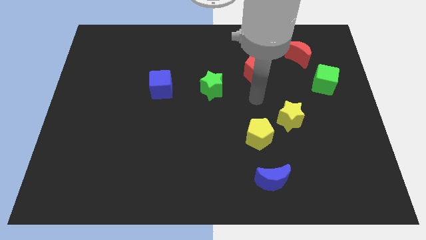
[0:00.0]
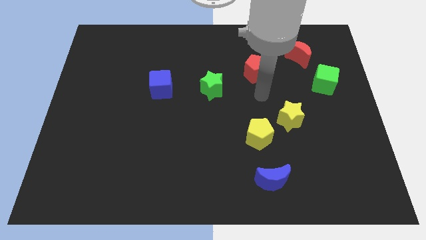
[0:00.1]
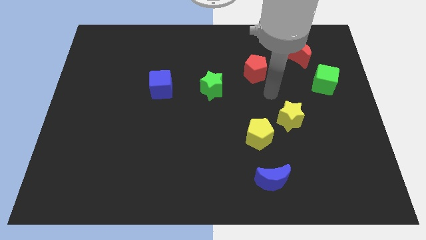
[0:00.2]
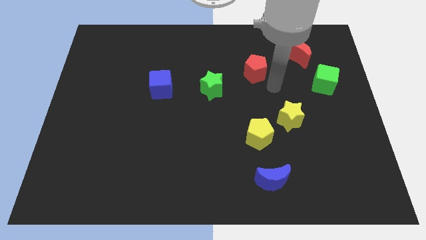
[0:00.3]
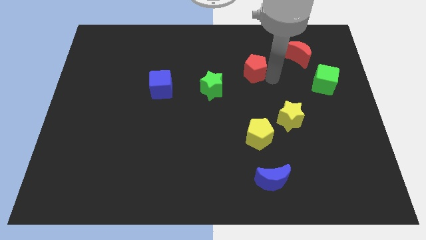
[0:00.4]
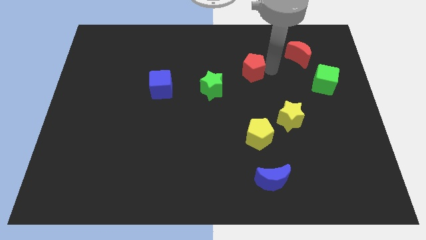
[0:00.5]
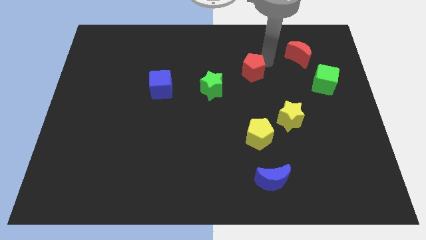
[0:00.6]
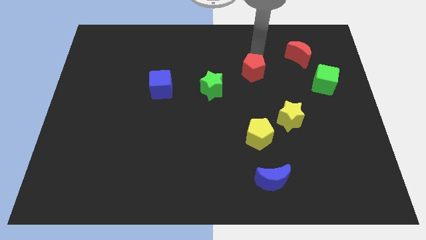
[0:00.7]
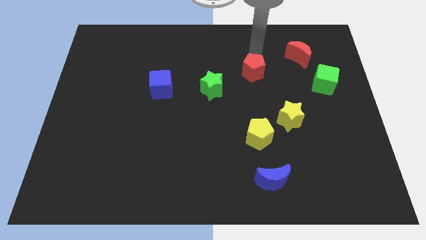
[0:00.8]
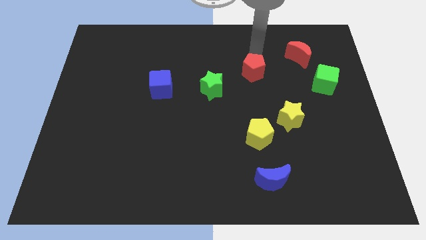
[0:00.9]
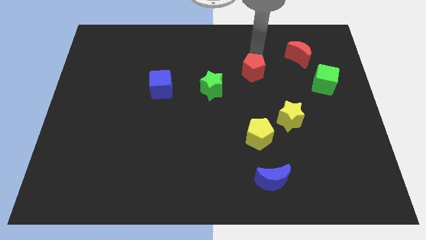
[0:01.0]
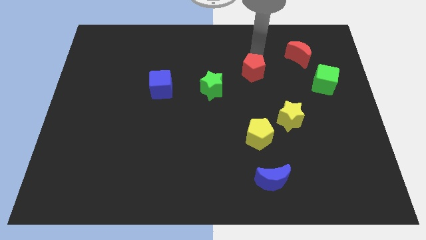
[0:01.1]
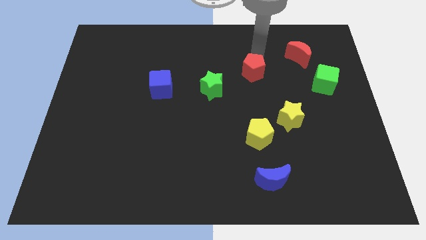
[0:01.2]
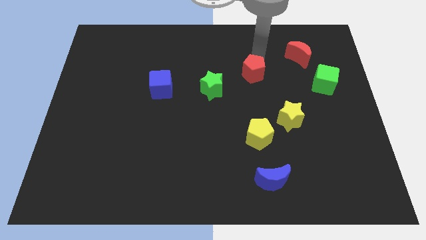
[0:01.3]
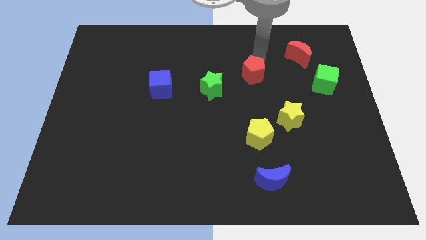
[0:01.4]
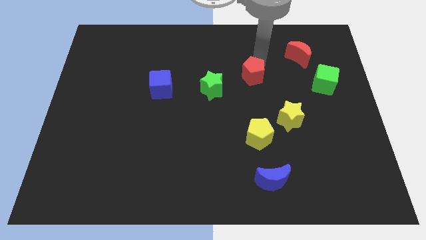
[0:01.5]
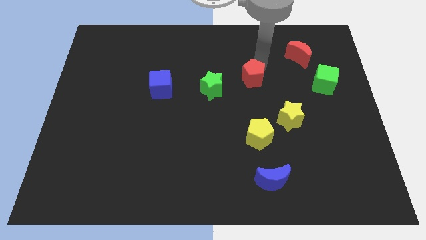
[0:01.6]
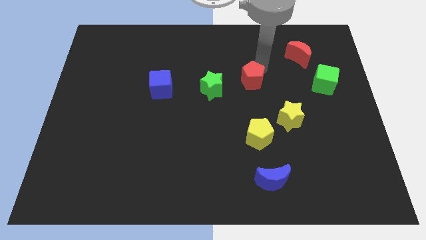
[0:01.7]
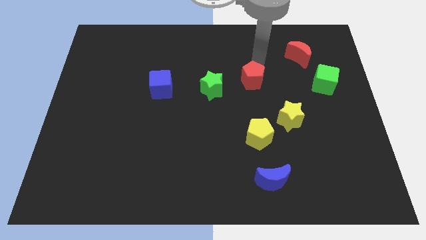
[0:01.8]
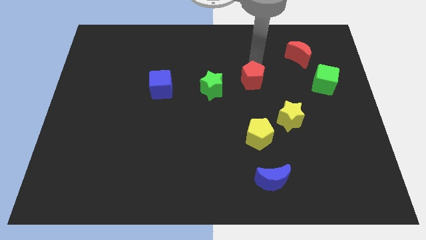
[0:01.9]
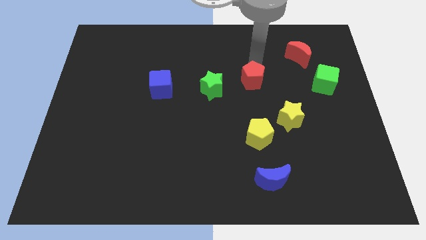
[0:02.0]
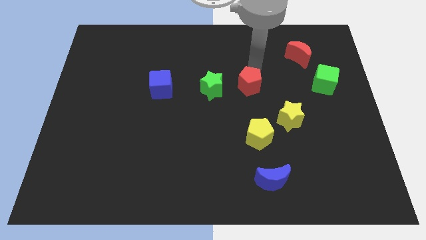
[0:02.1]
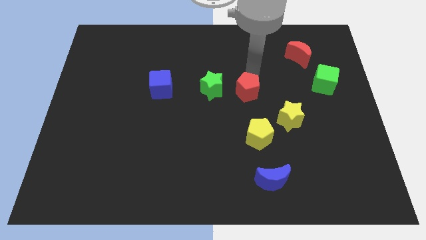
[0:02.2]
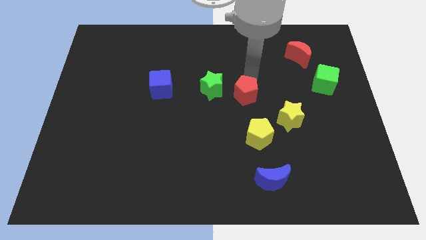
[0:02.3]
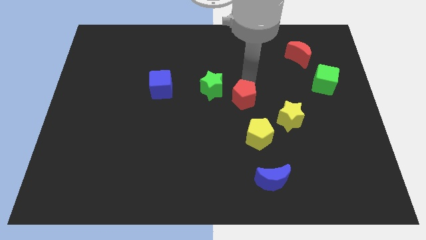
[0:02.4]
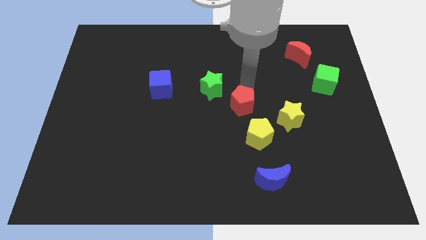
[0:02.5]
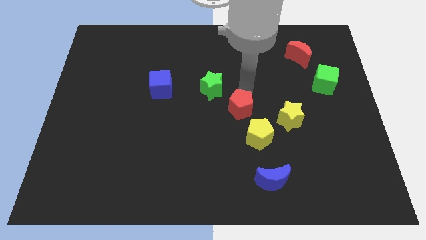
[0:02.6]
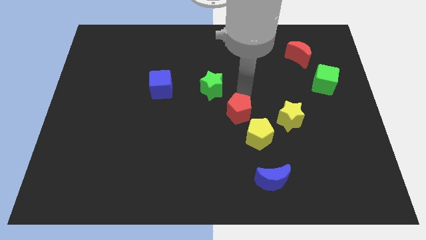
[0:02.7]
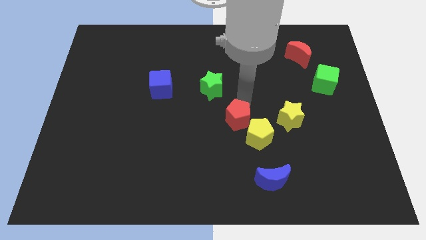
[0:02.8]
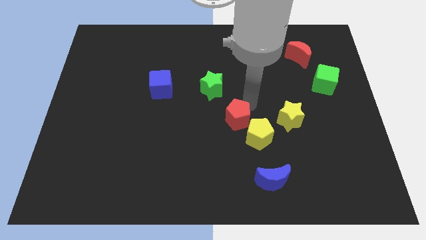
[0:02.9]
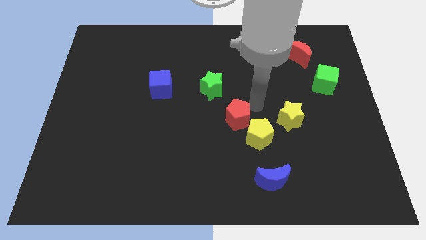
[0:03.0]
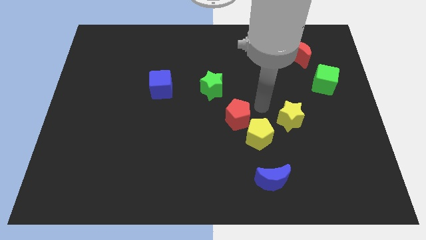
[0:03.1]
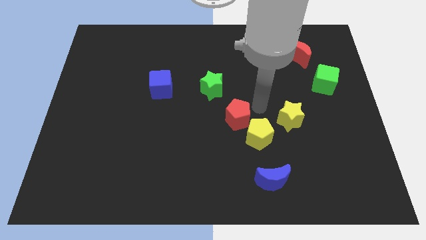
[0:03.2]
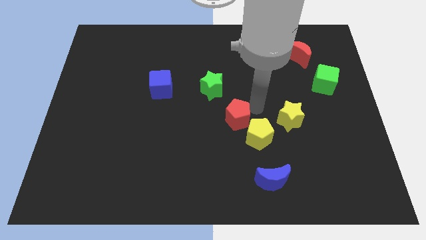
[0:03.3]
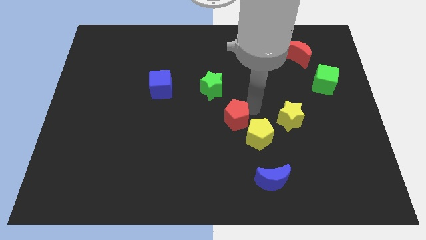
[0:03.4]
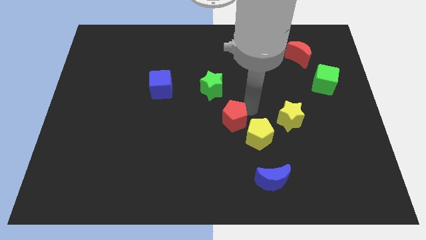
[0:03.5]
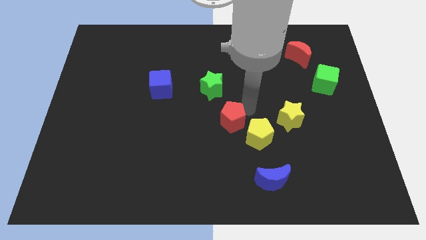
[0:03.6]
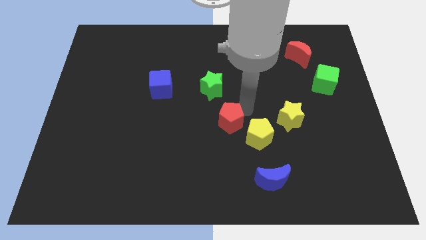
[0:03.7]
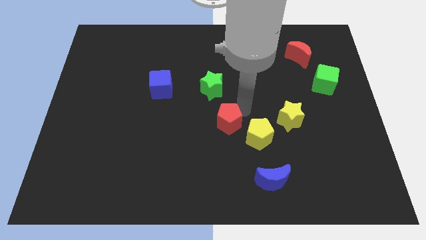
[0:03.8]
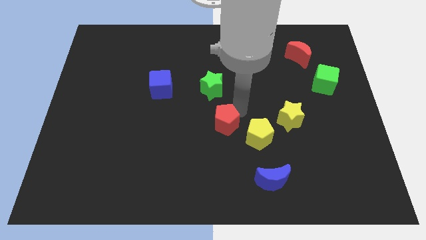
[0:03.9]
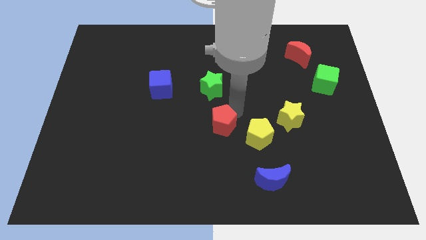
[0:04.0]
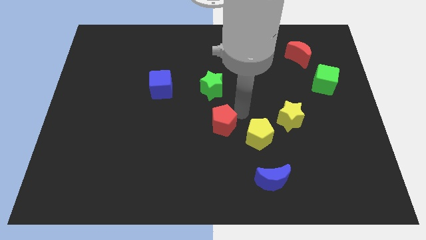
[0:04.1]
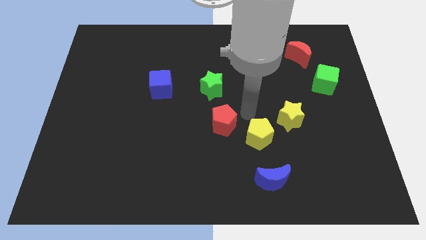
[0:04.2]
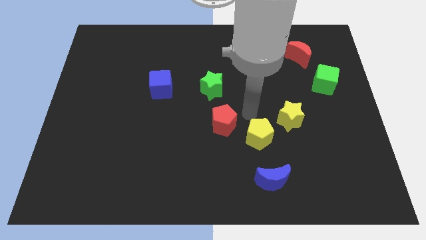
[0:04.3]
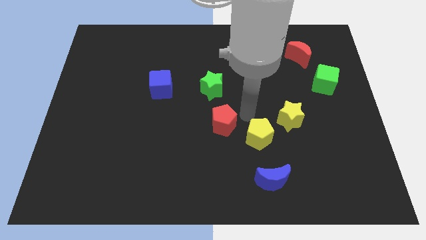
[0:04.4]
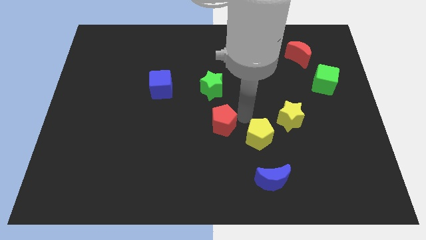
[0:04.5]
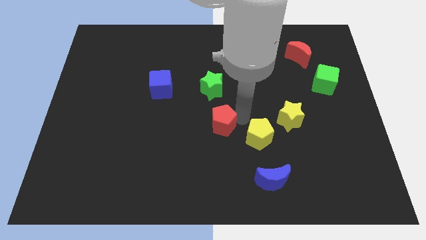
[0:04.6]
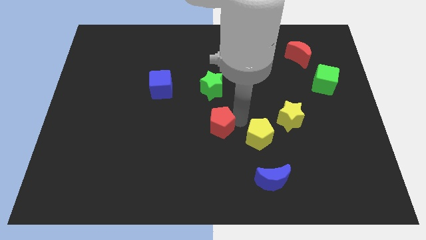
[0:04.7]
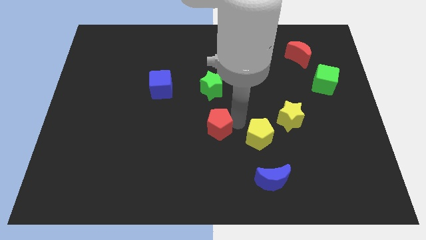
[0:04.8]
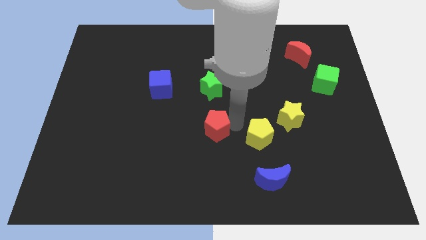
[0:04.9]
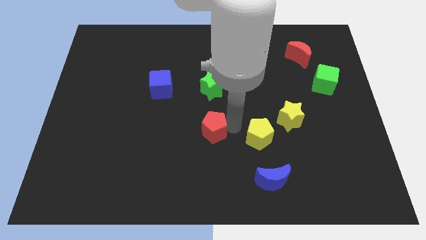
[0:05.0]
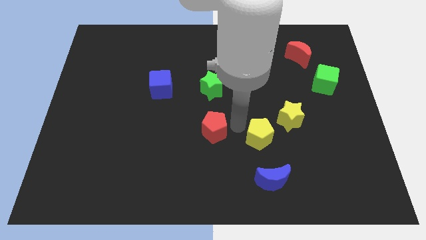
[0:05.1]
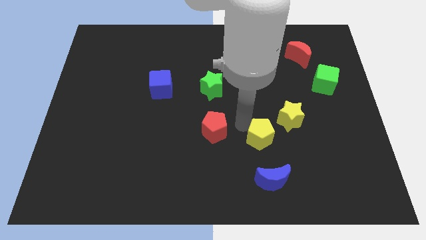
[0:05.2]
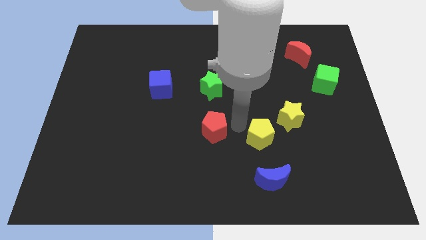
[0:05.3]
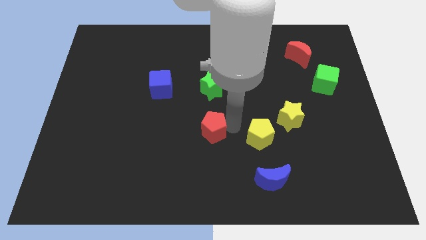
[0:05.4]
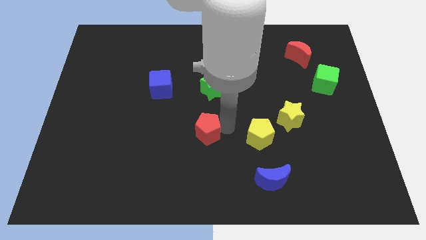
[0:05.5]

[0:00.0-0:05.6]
slide the red pentagon downwards and to the left

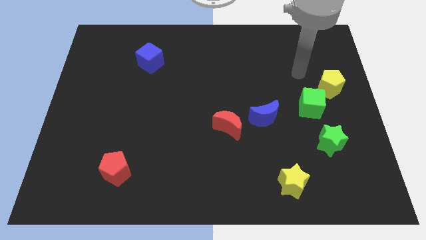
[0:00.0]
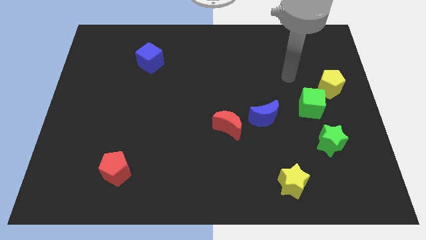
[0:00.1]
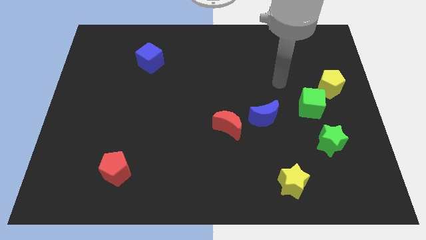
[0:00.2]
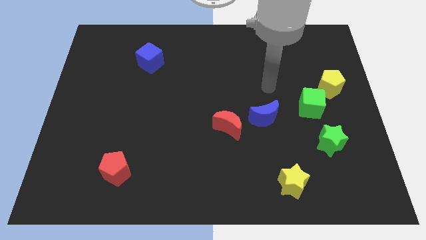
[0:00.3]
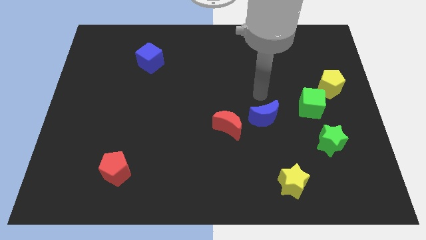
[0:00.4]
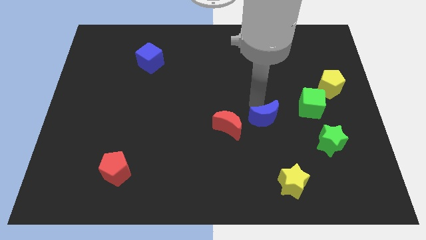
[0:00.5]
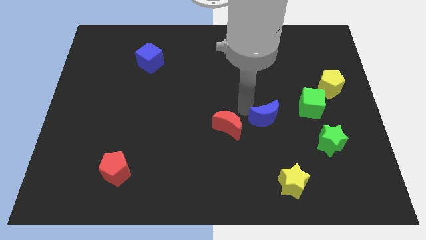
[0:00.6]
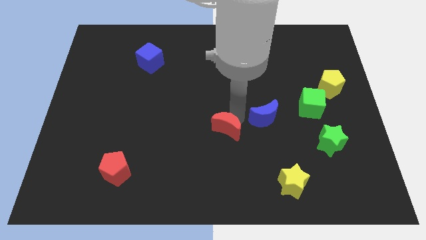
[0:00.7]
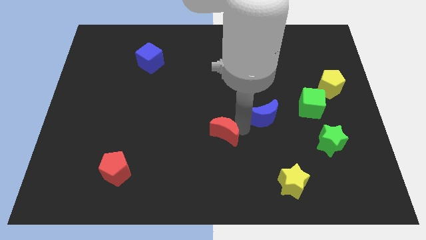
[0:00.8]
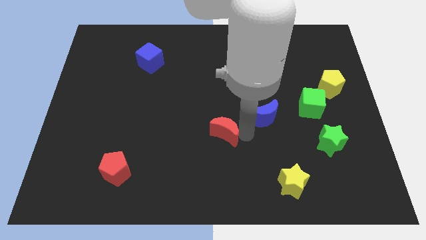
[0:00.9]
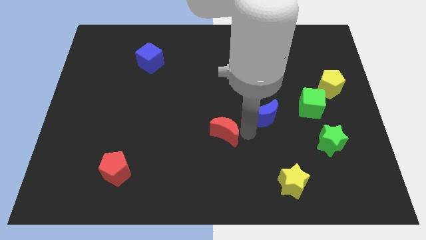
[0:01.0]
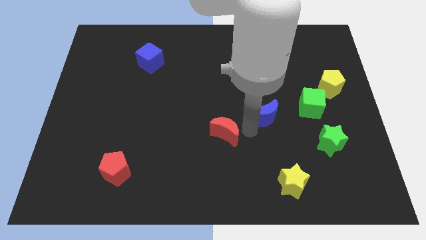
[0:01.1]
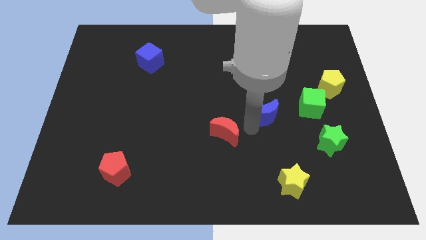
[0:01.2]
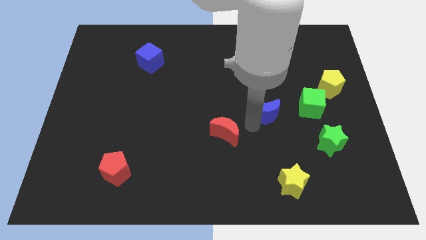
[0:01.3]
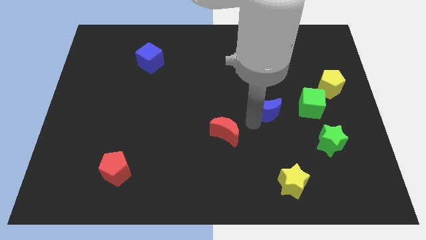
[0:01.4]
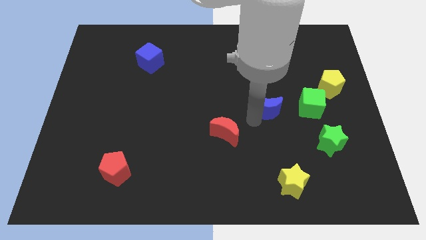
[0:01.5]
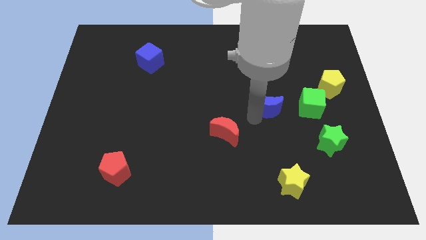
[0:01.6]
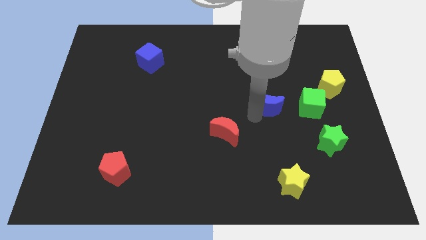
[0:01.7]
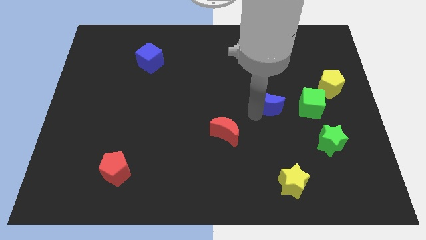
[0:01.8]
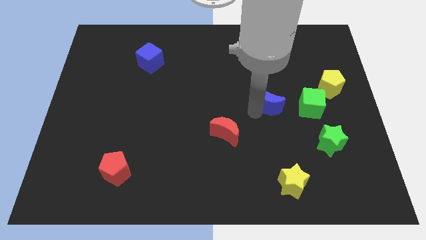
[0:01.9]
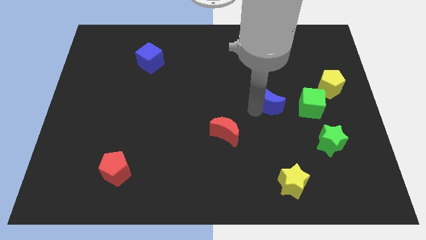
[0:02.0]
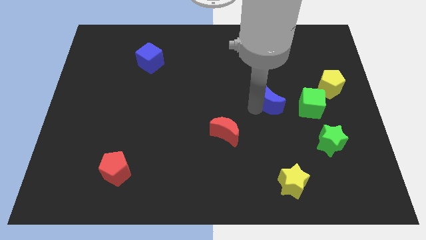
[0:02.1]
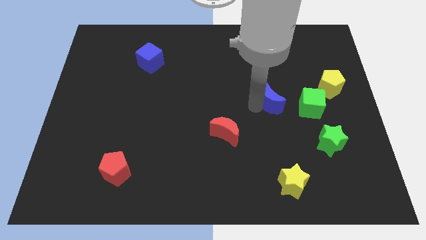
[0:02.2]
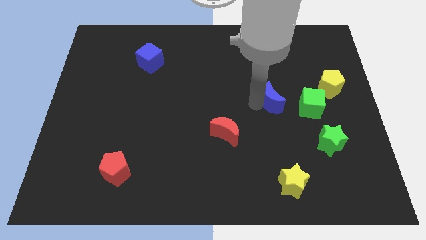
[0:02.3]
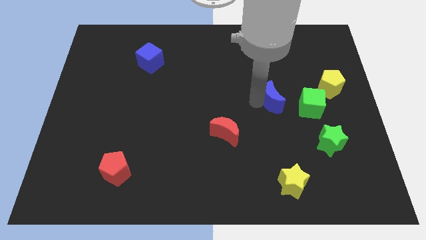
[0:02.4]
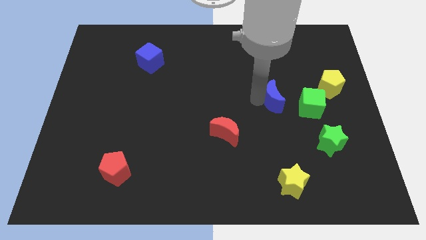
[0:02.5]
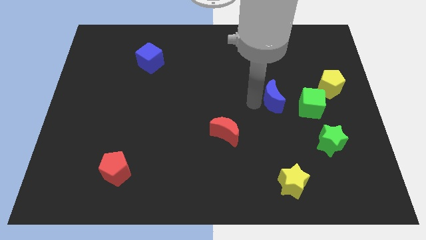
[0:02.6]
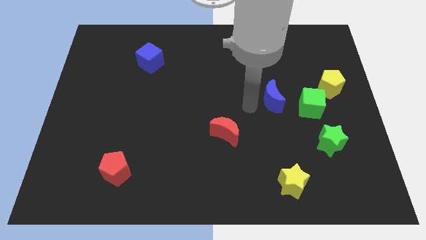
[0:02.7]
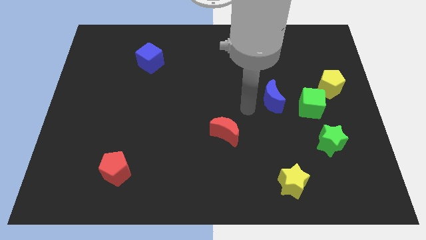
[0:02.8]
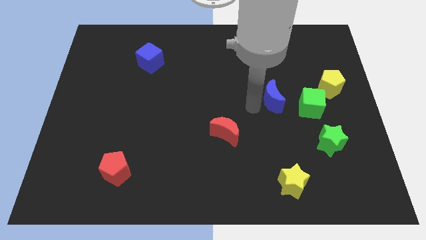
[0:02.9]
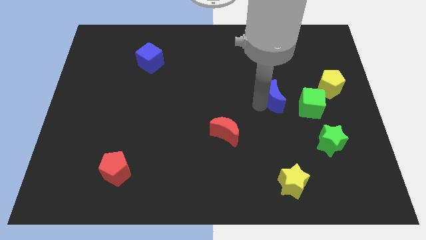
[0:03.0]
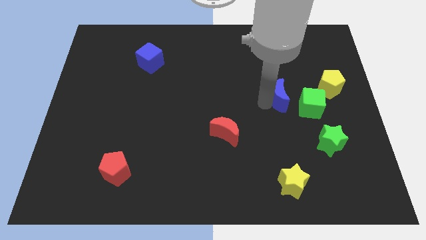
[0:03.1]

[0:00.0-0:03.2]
slightly move the blue moon up and then right
